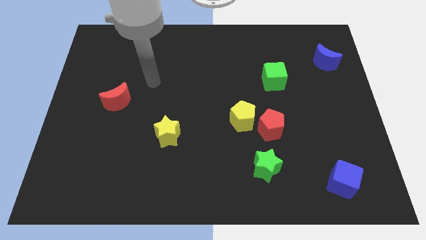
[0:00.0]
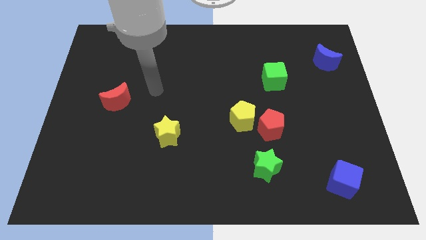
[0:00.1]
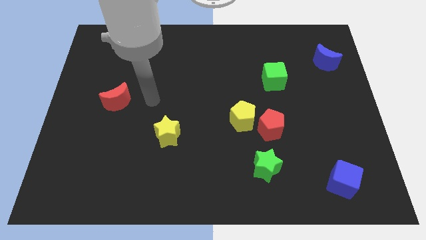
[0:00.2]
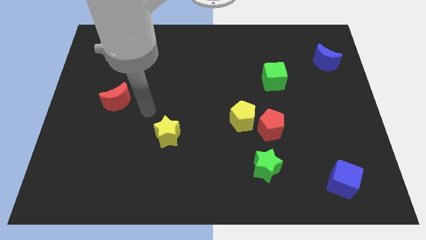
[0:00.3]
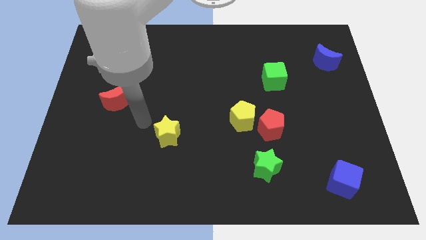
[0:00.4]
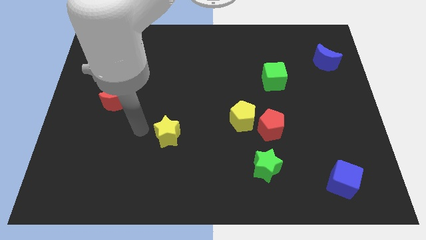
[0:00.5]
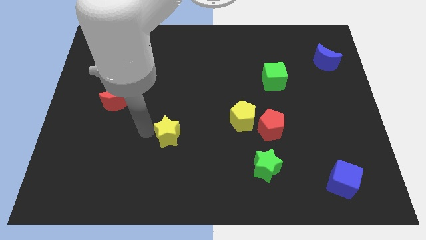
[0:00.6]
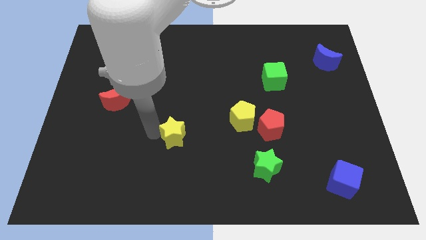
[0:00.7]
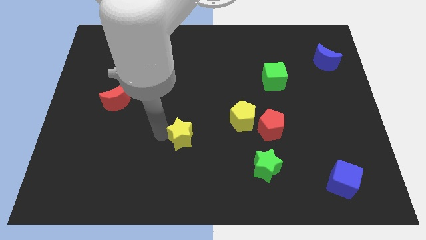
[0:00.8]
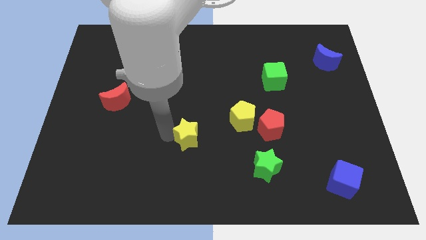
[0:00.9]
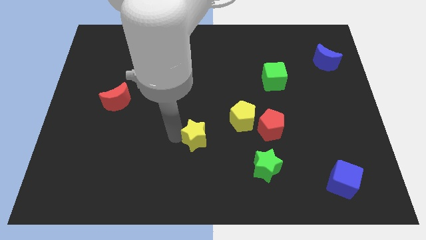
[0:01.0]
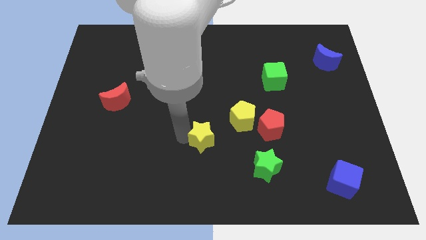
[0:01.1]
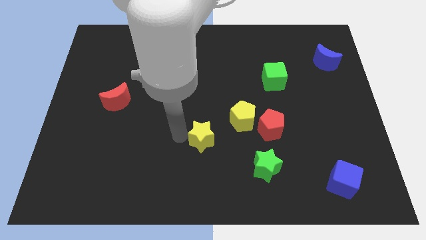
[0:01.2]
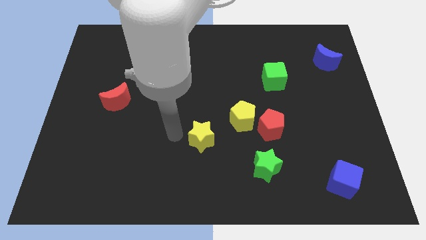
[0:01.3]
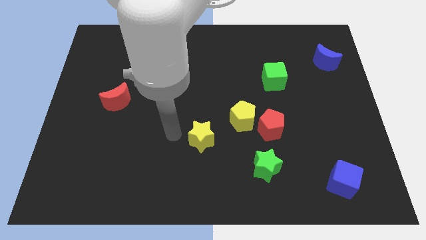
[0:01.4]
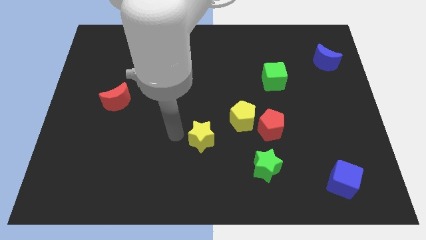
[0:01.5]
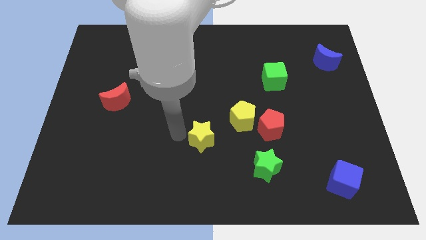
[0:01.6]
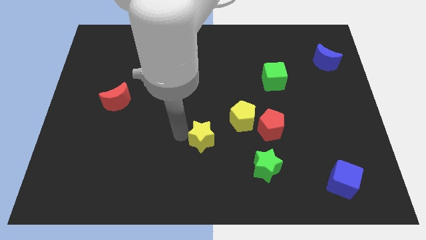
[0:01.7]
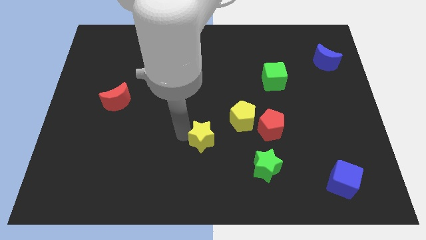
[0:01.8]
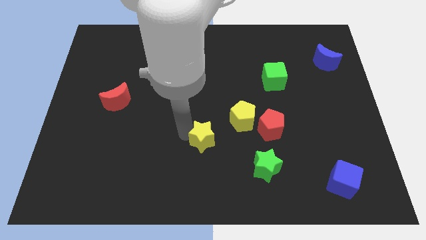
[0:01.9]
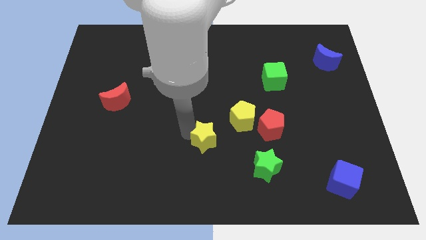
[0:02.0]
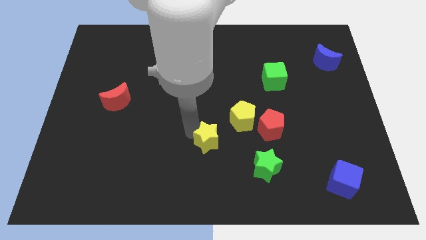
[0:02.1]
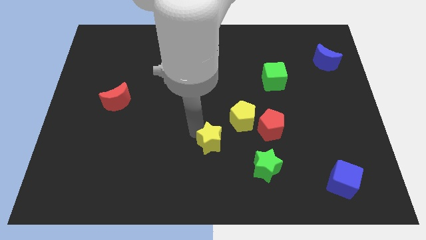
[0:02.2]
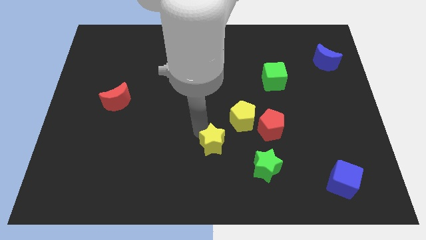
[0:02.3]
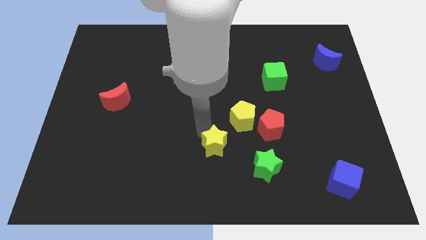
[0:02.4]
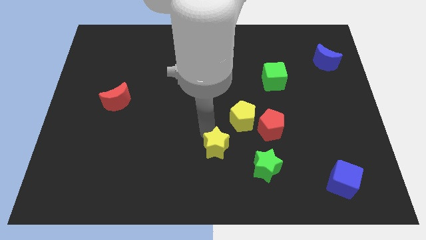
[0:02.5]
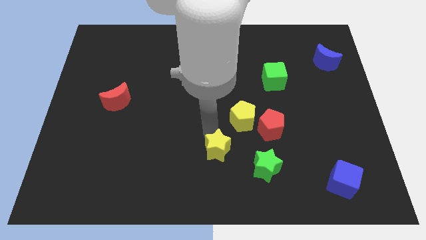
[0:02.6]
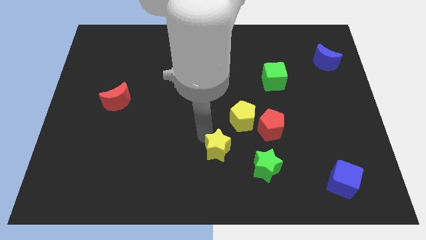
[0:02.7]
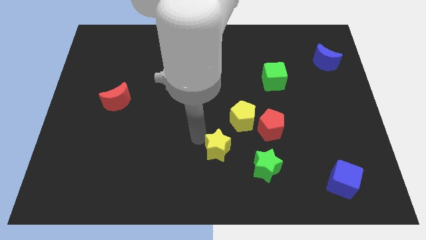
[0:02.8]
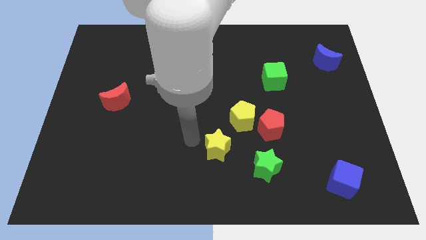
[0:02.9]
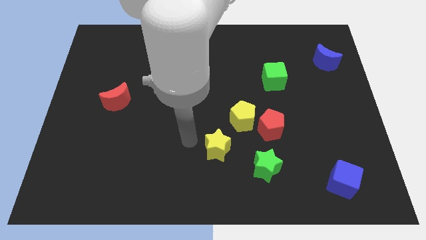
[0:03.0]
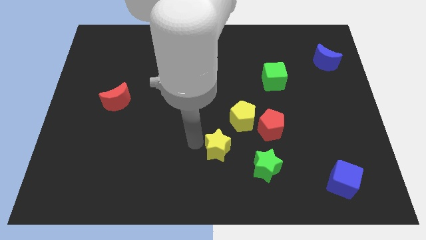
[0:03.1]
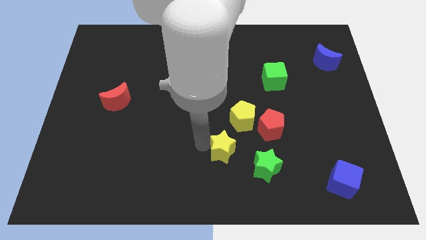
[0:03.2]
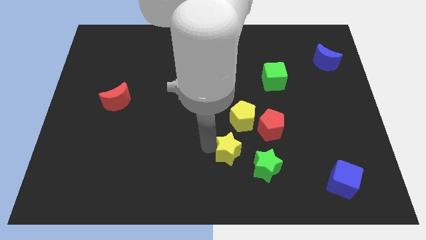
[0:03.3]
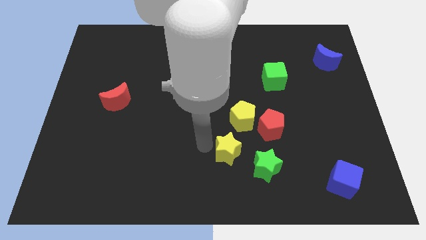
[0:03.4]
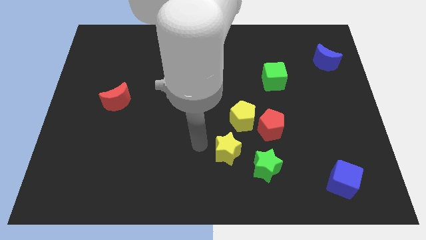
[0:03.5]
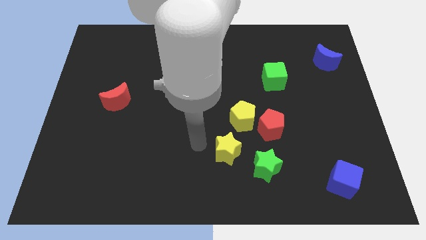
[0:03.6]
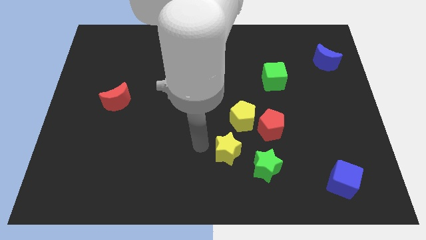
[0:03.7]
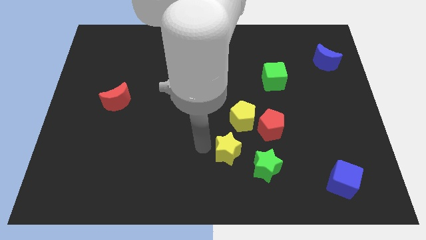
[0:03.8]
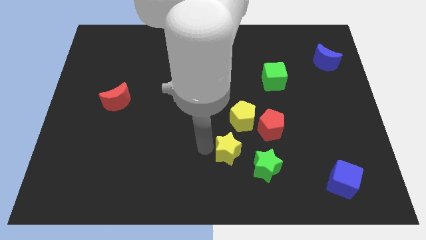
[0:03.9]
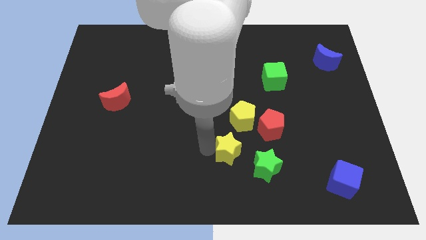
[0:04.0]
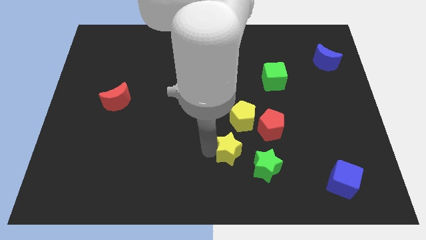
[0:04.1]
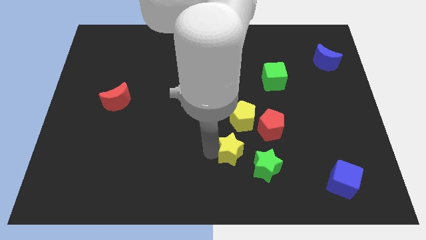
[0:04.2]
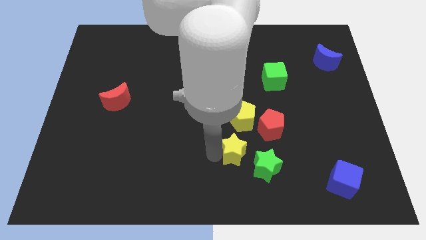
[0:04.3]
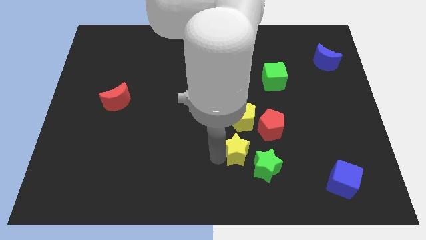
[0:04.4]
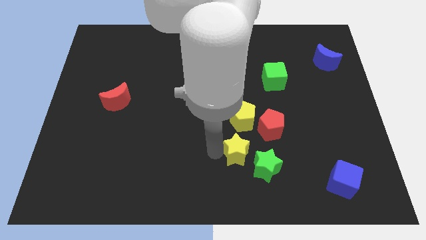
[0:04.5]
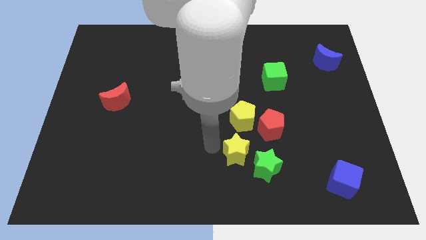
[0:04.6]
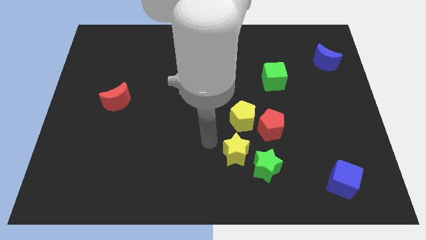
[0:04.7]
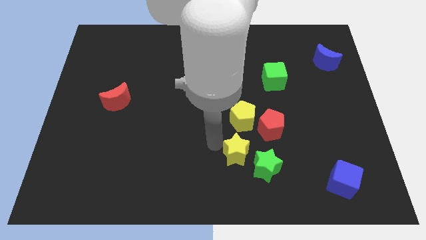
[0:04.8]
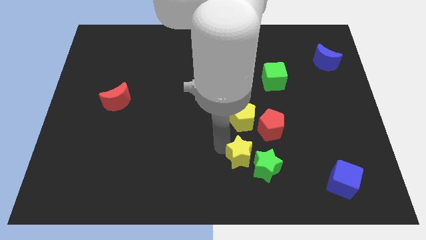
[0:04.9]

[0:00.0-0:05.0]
slide the yellow star close to the green star

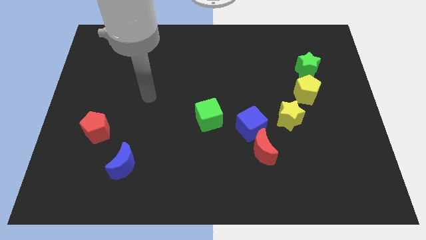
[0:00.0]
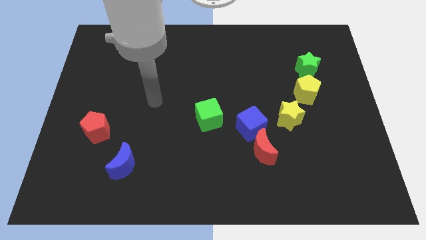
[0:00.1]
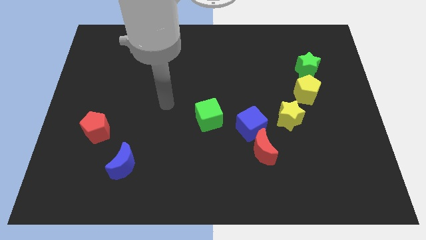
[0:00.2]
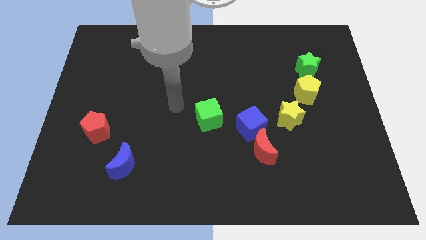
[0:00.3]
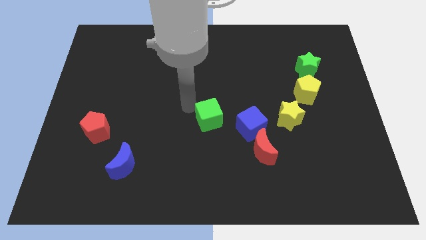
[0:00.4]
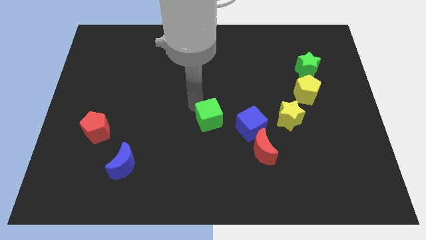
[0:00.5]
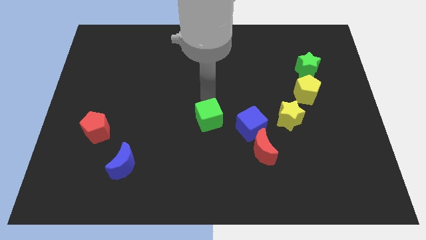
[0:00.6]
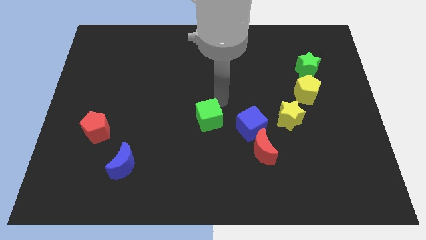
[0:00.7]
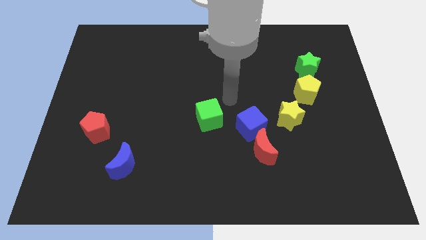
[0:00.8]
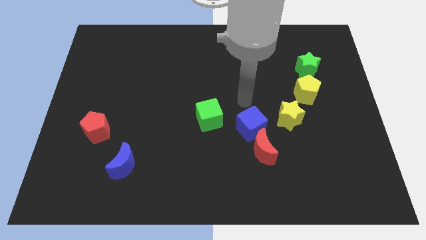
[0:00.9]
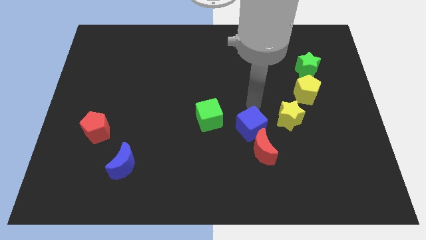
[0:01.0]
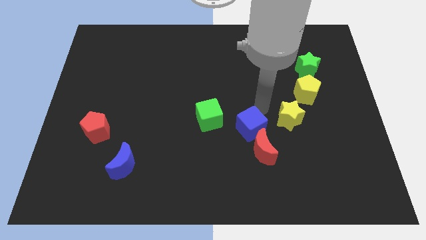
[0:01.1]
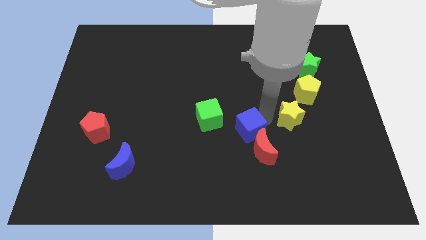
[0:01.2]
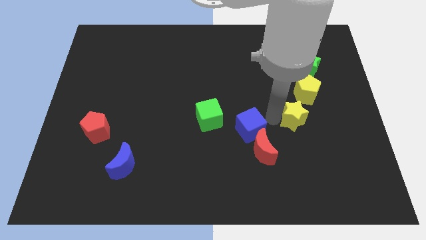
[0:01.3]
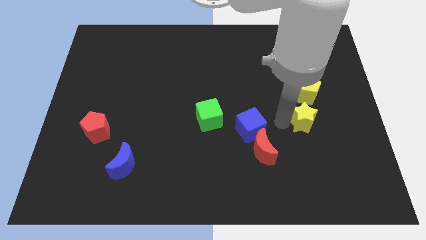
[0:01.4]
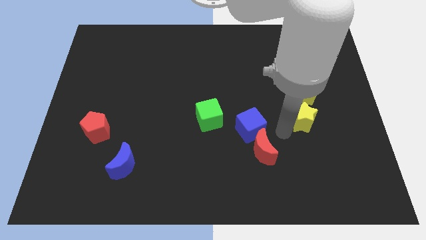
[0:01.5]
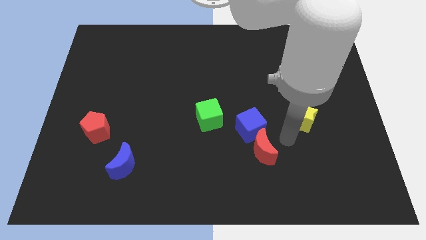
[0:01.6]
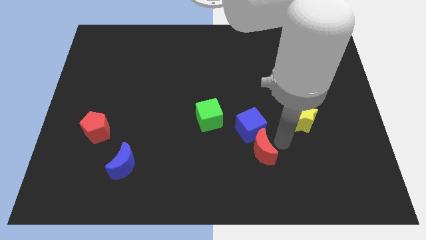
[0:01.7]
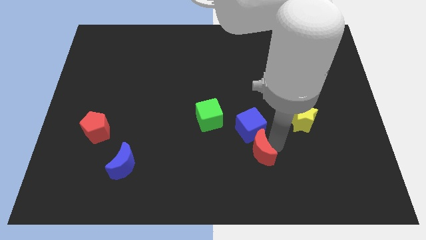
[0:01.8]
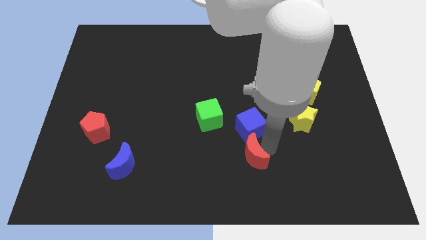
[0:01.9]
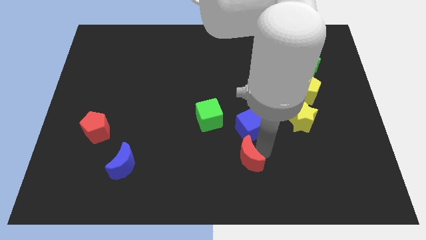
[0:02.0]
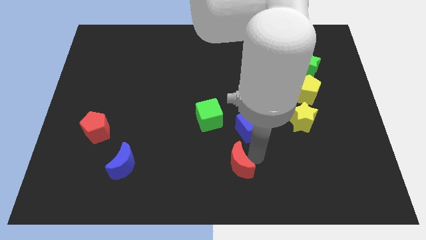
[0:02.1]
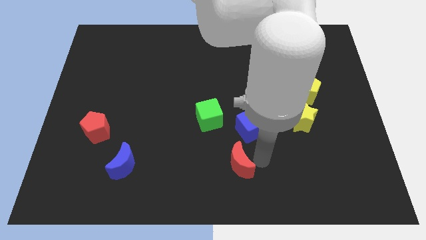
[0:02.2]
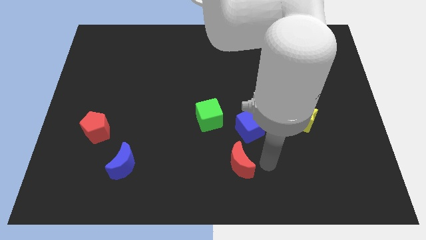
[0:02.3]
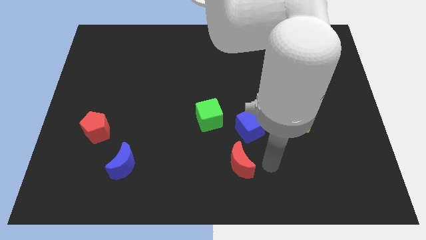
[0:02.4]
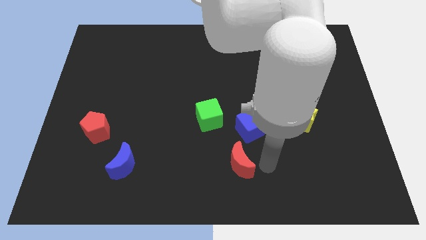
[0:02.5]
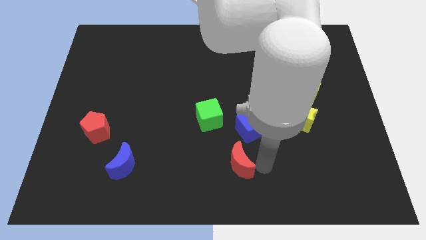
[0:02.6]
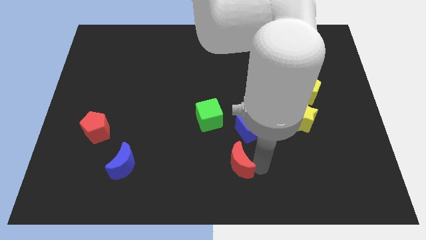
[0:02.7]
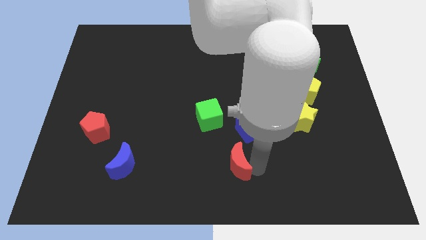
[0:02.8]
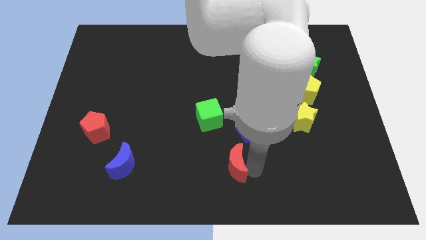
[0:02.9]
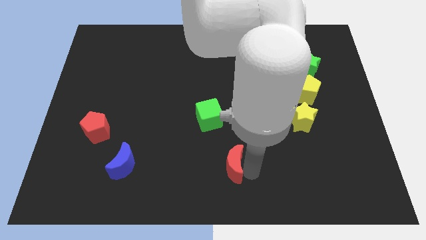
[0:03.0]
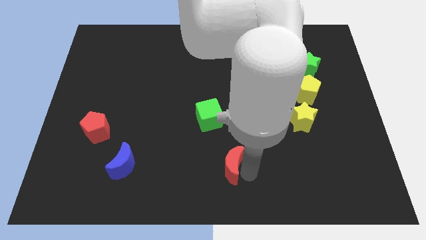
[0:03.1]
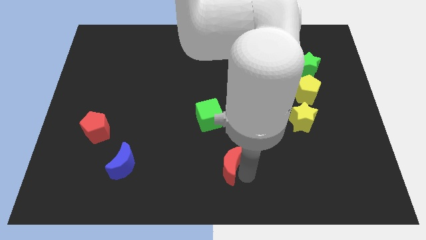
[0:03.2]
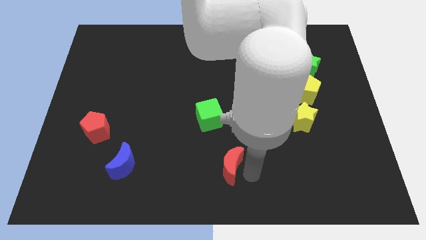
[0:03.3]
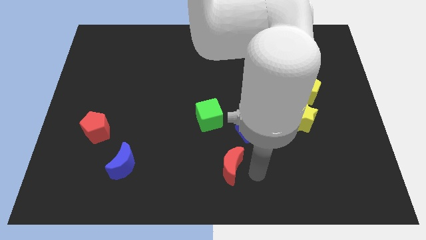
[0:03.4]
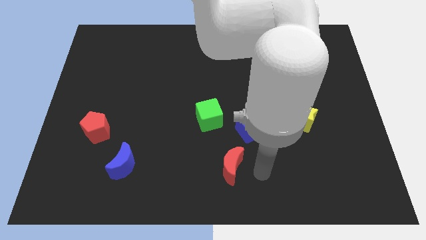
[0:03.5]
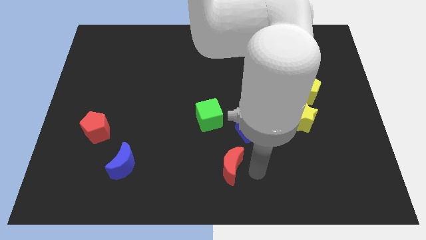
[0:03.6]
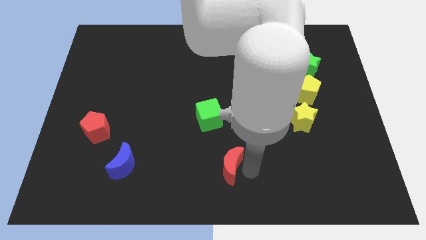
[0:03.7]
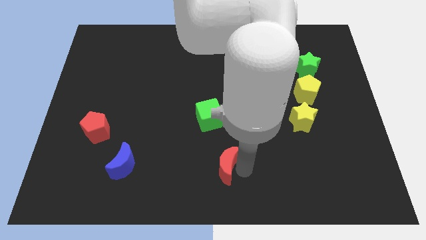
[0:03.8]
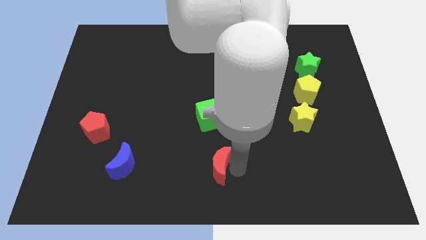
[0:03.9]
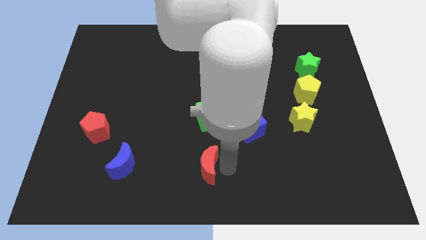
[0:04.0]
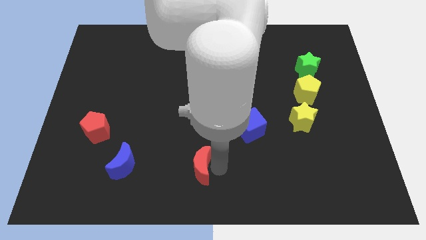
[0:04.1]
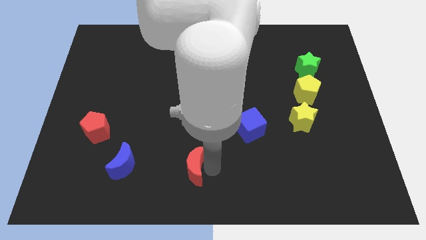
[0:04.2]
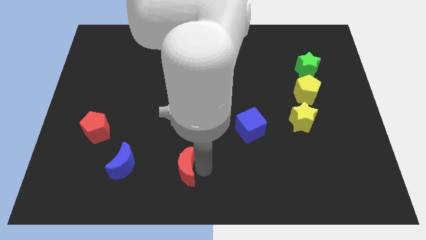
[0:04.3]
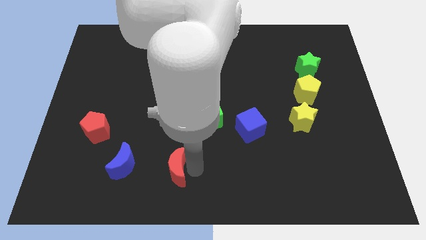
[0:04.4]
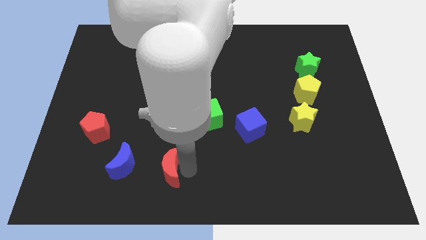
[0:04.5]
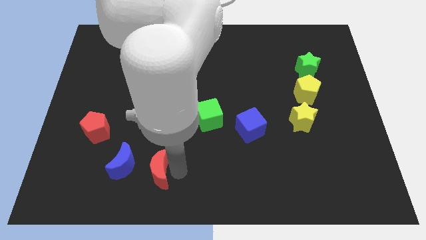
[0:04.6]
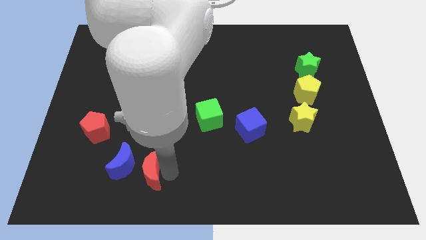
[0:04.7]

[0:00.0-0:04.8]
push the red moon close to the blue moon
